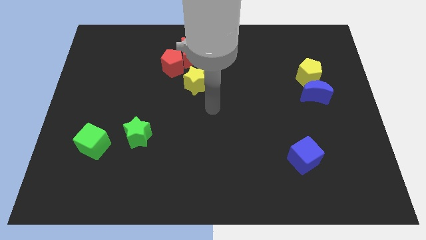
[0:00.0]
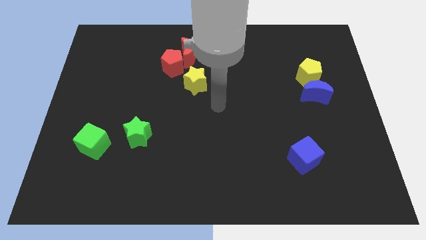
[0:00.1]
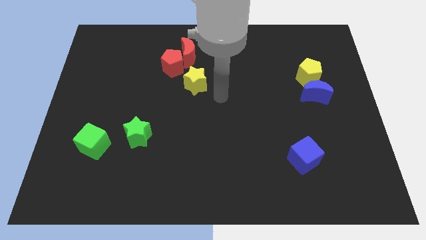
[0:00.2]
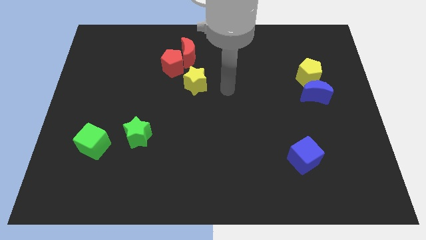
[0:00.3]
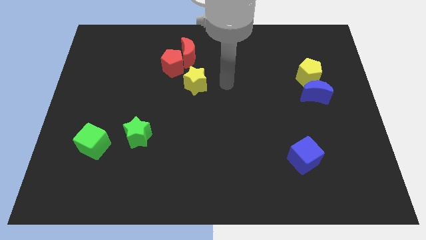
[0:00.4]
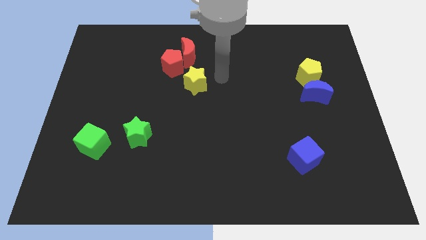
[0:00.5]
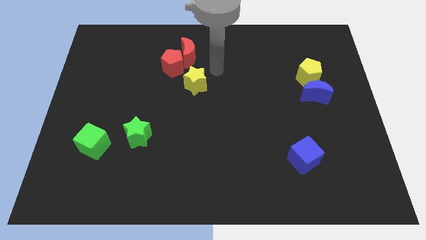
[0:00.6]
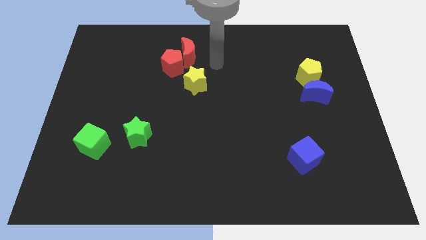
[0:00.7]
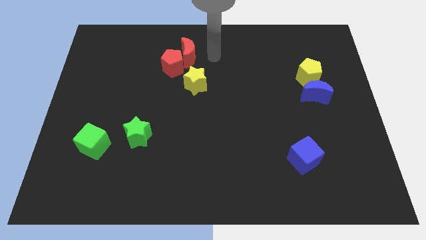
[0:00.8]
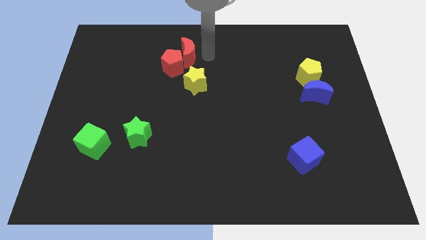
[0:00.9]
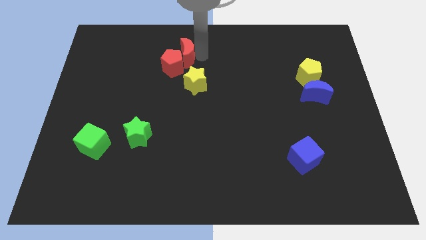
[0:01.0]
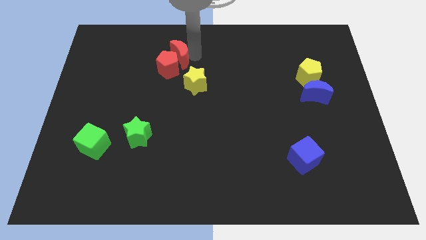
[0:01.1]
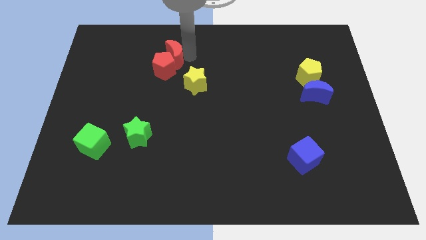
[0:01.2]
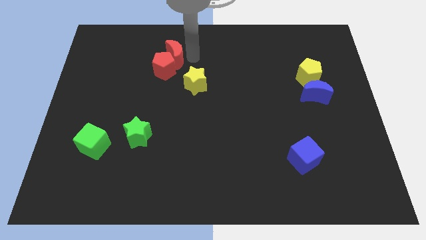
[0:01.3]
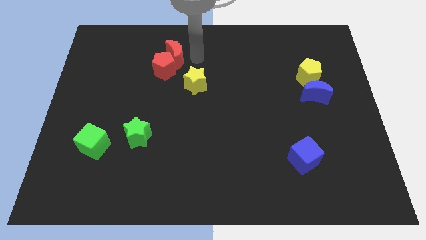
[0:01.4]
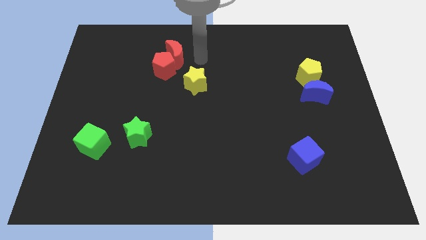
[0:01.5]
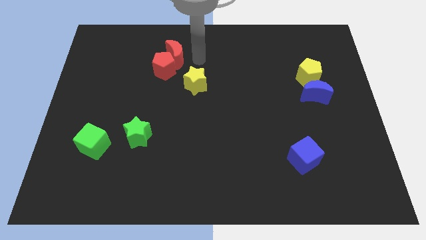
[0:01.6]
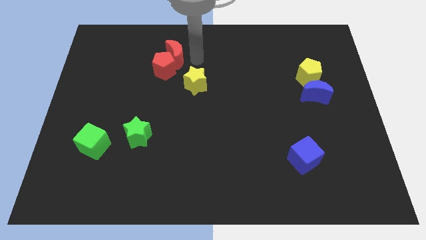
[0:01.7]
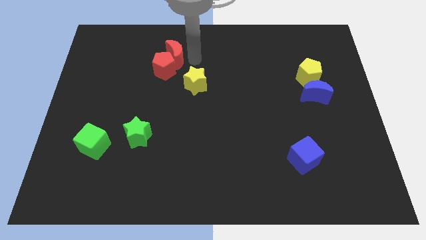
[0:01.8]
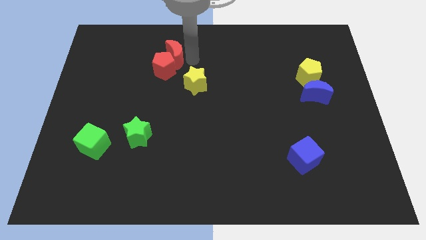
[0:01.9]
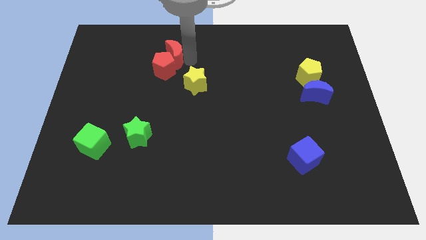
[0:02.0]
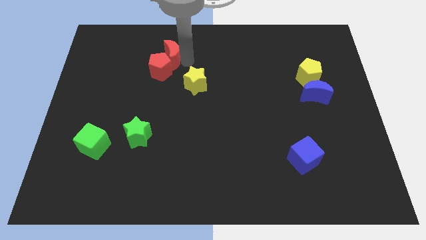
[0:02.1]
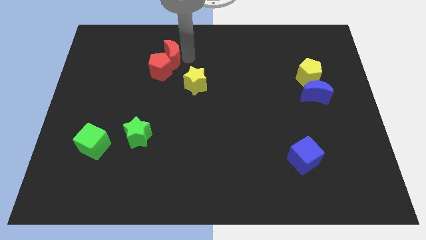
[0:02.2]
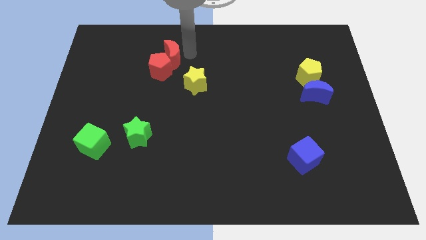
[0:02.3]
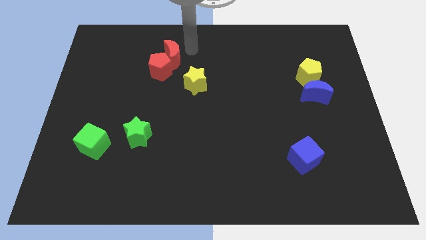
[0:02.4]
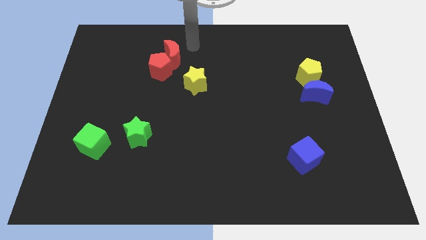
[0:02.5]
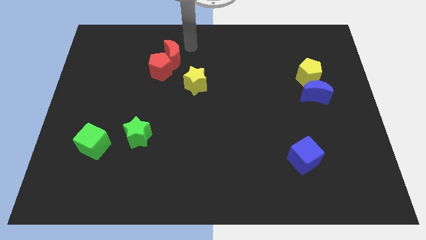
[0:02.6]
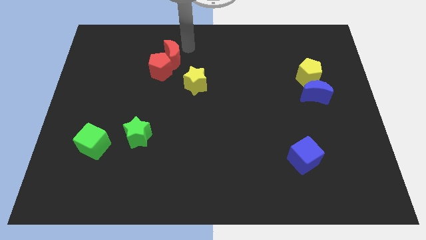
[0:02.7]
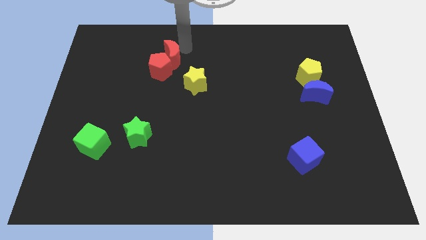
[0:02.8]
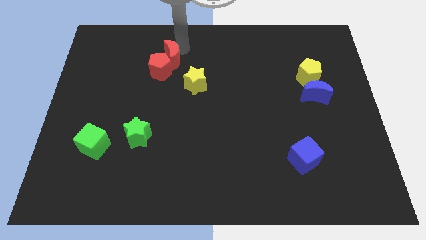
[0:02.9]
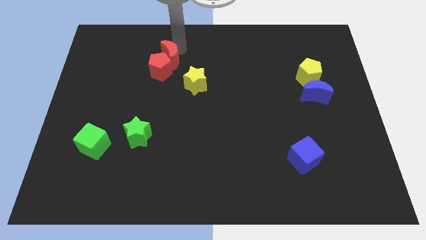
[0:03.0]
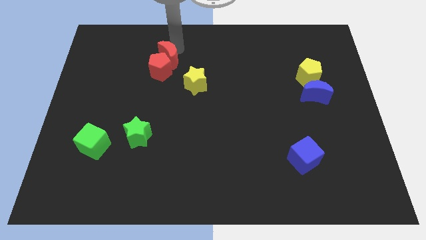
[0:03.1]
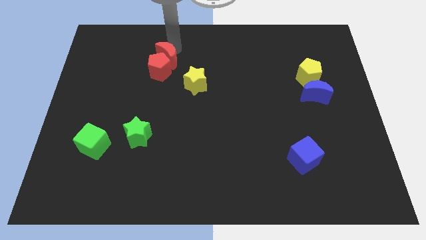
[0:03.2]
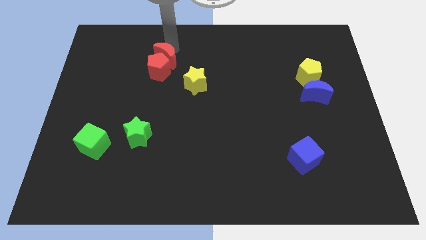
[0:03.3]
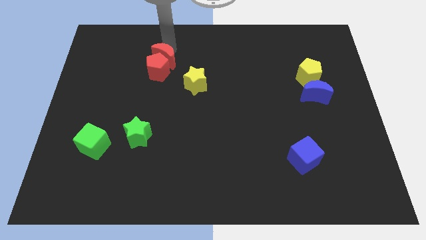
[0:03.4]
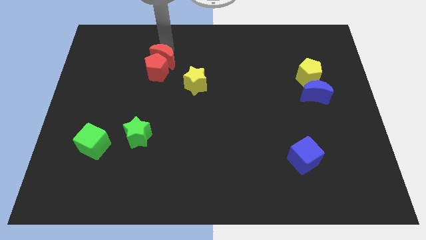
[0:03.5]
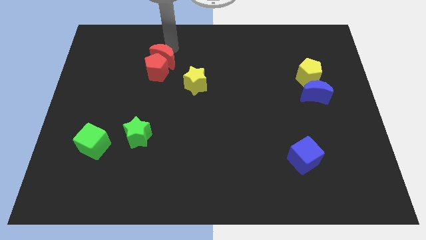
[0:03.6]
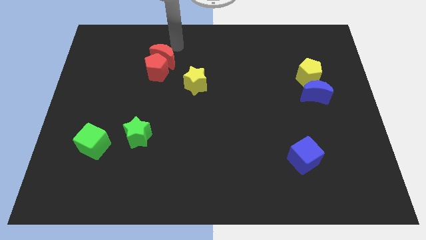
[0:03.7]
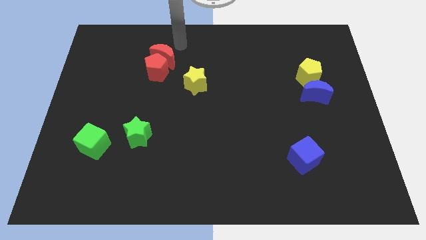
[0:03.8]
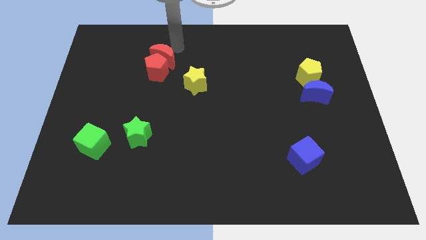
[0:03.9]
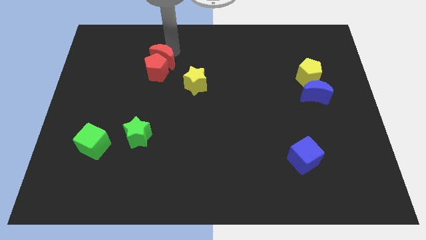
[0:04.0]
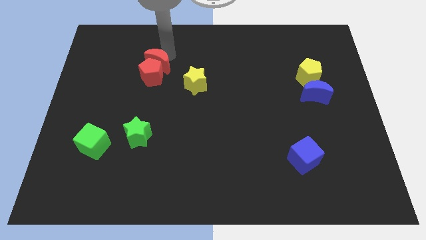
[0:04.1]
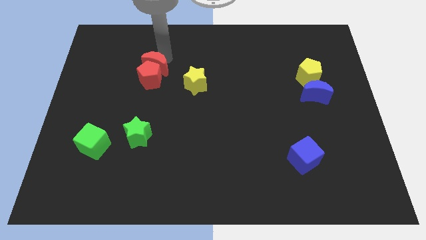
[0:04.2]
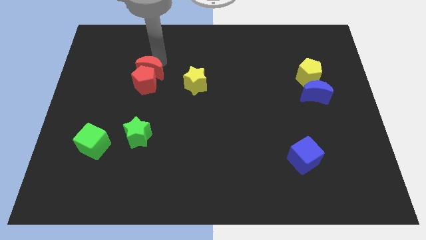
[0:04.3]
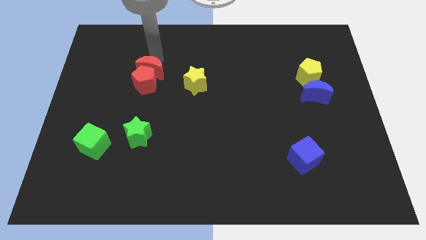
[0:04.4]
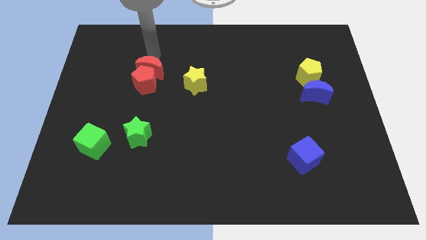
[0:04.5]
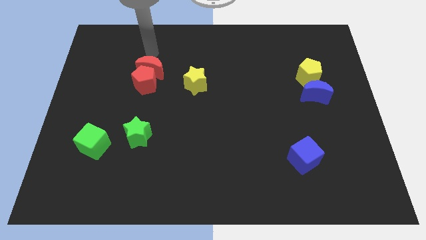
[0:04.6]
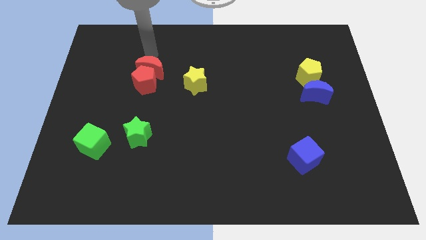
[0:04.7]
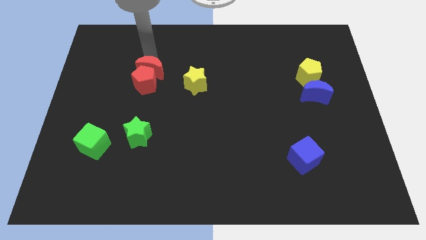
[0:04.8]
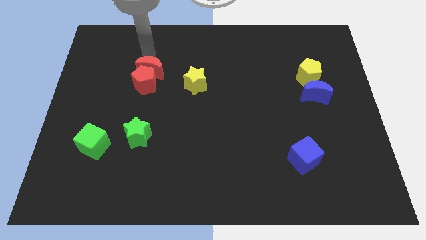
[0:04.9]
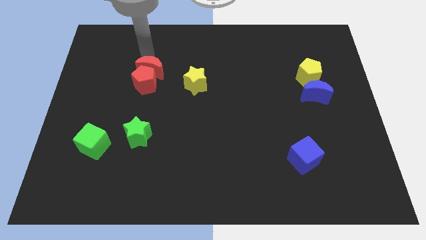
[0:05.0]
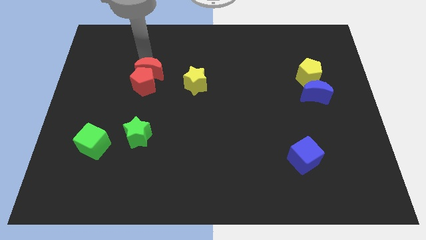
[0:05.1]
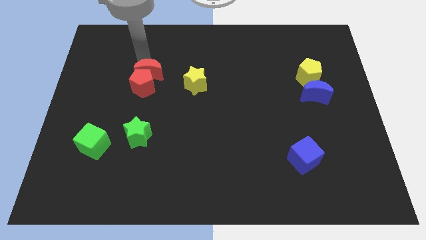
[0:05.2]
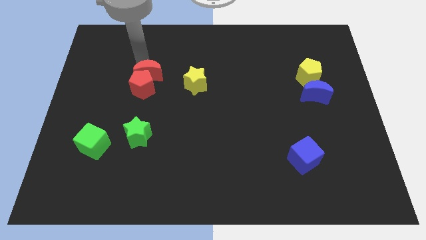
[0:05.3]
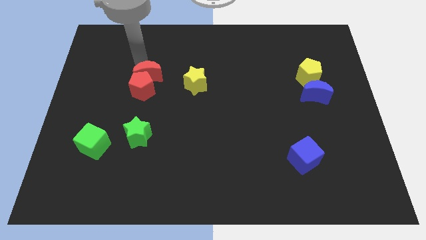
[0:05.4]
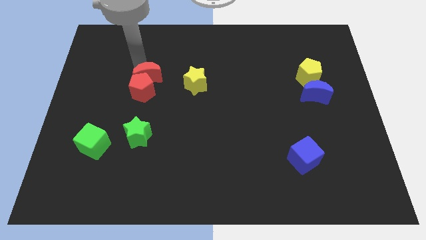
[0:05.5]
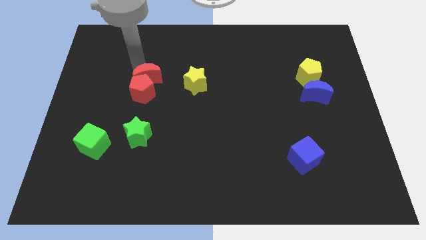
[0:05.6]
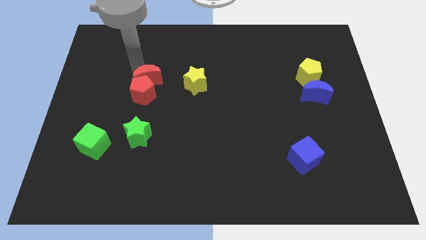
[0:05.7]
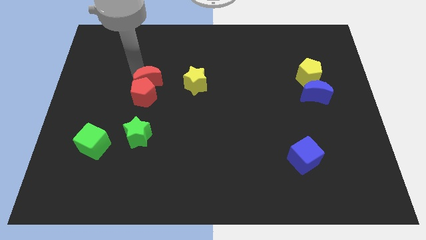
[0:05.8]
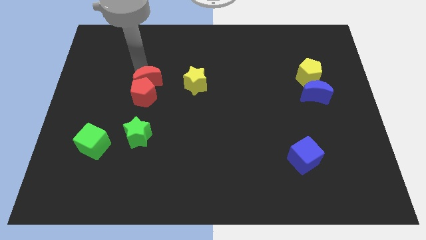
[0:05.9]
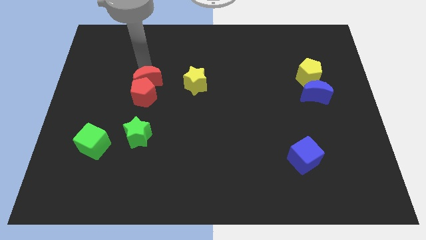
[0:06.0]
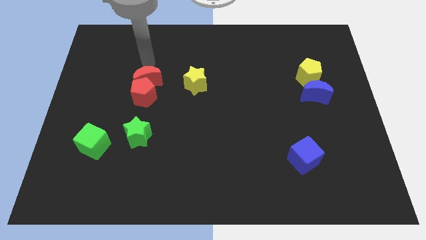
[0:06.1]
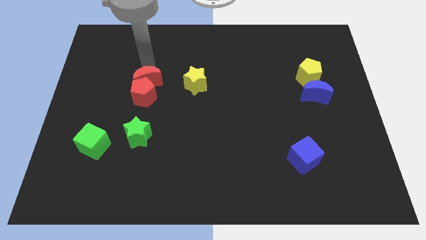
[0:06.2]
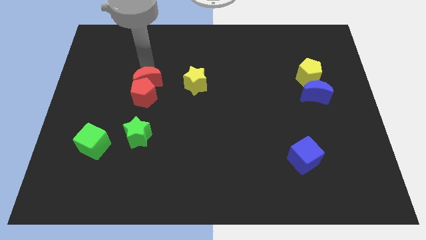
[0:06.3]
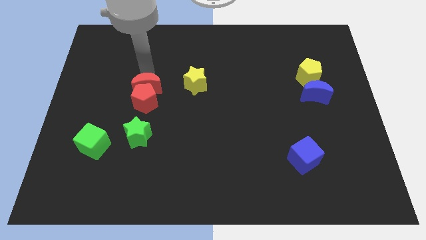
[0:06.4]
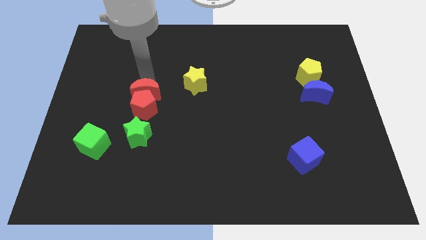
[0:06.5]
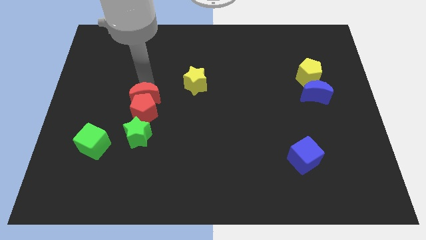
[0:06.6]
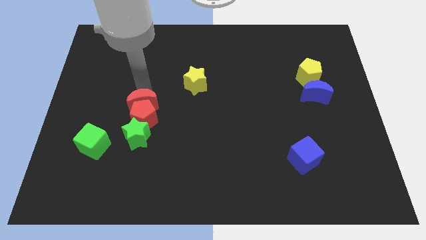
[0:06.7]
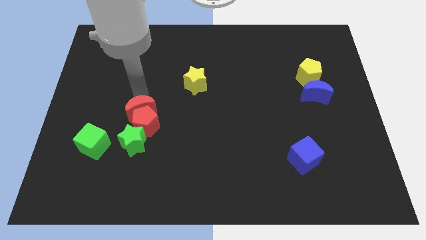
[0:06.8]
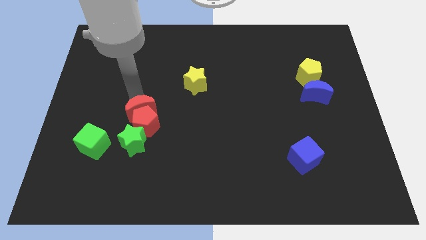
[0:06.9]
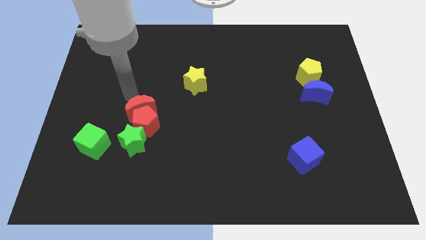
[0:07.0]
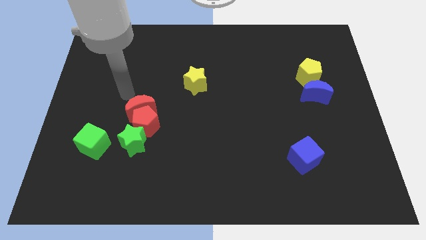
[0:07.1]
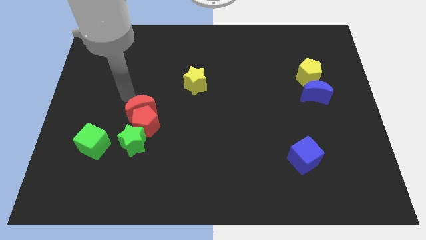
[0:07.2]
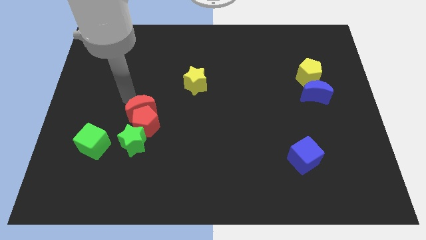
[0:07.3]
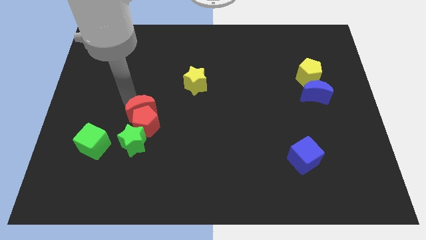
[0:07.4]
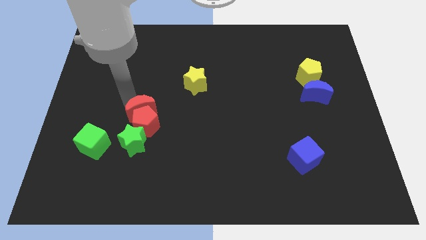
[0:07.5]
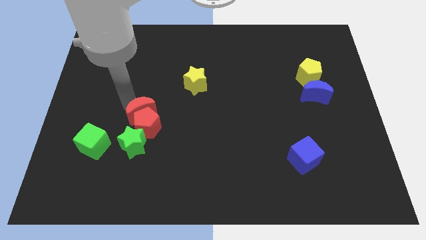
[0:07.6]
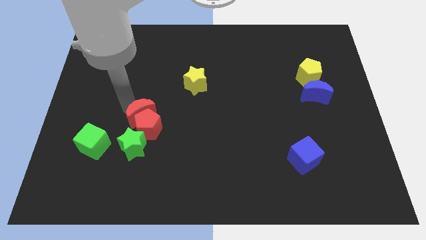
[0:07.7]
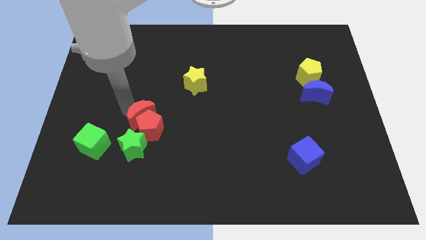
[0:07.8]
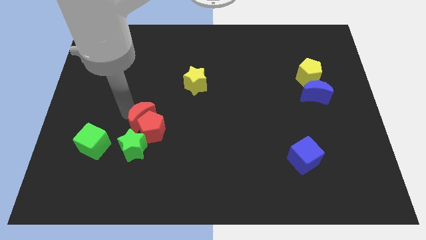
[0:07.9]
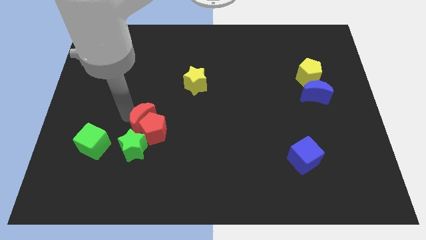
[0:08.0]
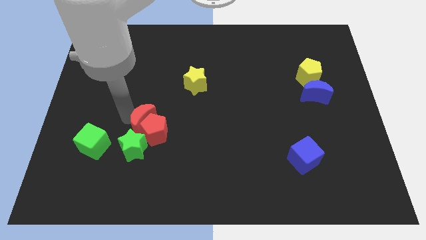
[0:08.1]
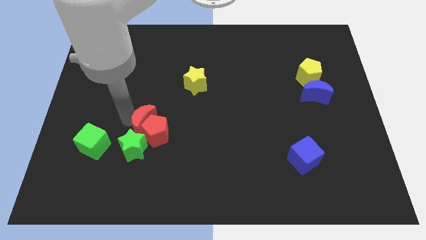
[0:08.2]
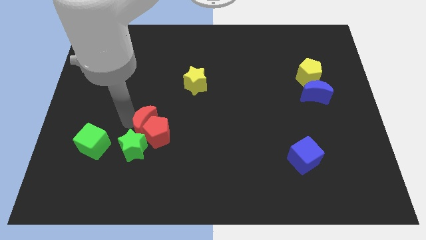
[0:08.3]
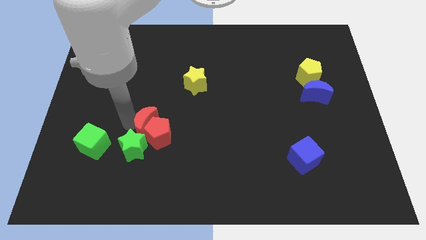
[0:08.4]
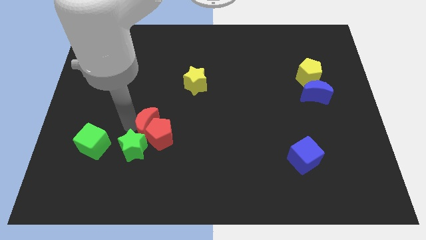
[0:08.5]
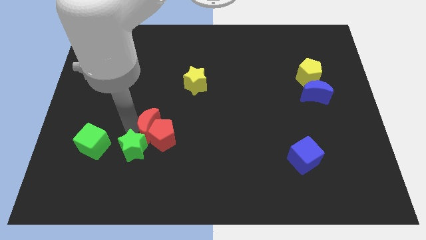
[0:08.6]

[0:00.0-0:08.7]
push the red moon downwards
